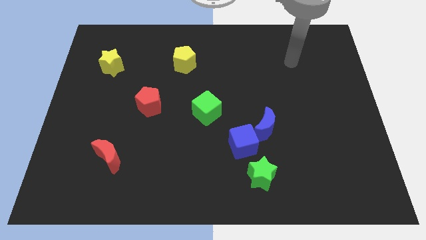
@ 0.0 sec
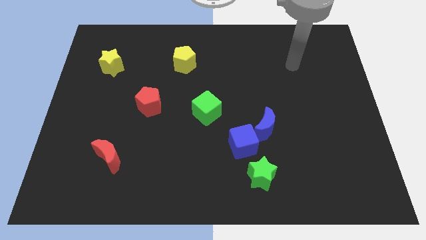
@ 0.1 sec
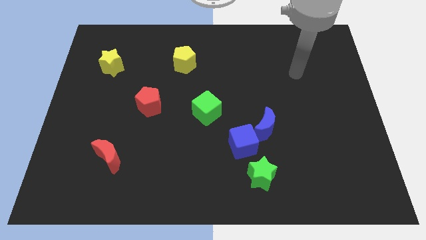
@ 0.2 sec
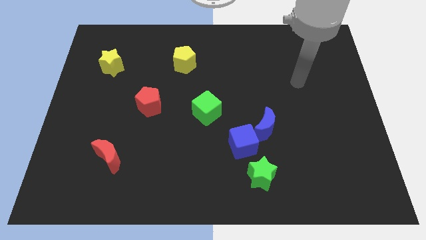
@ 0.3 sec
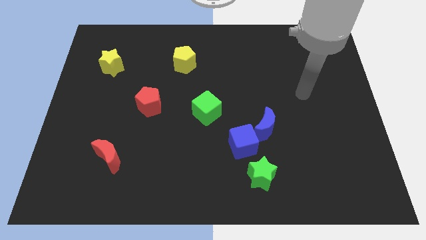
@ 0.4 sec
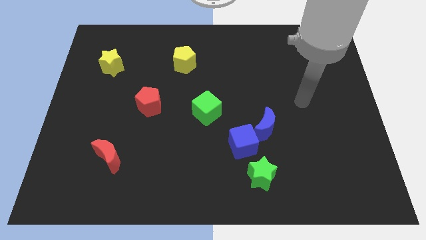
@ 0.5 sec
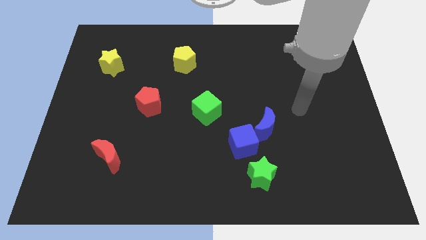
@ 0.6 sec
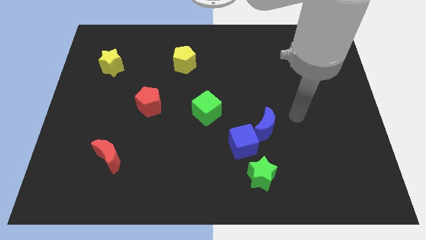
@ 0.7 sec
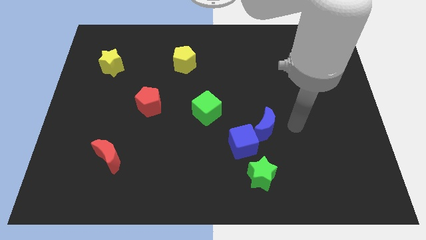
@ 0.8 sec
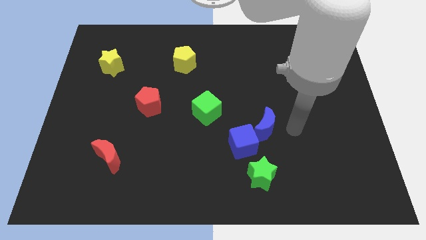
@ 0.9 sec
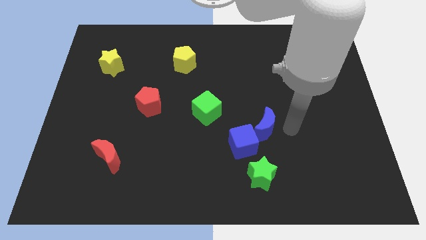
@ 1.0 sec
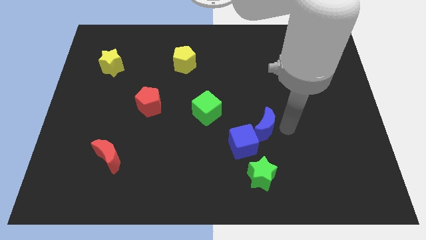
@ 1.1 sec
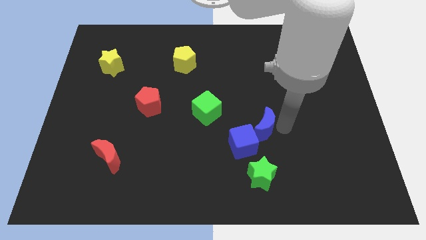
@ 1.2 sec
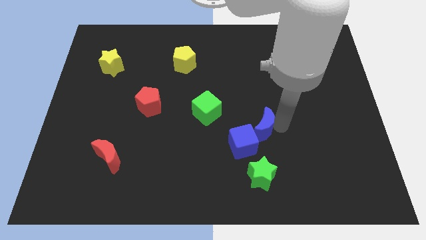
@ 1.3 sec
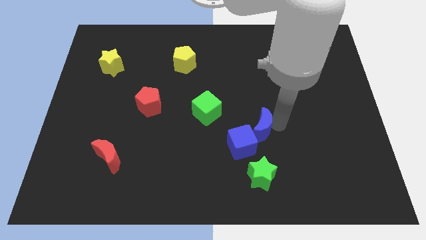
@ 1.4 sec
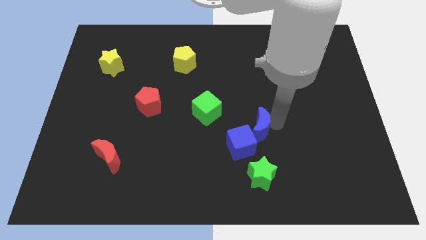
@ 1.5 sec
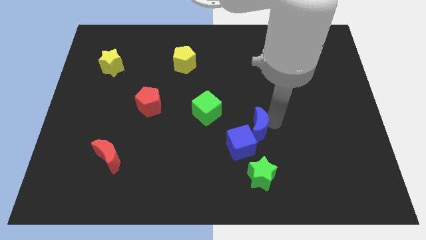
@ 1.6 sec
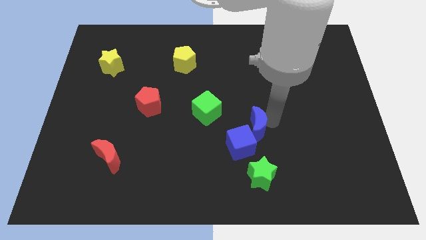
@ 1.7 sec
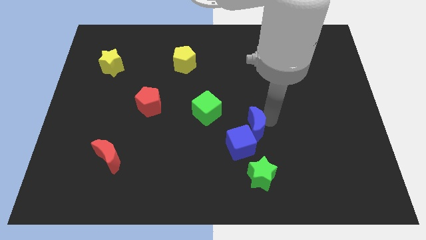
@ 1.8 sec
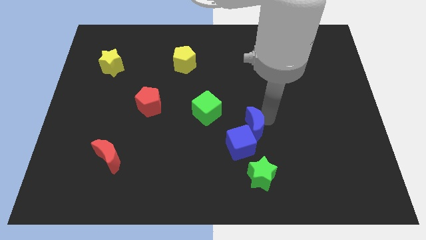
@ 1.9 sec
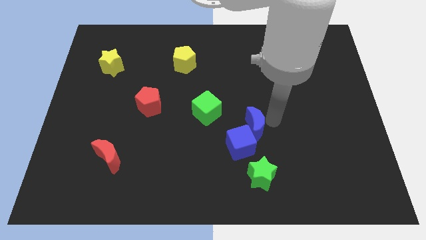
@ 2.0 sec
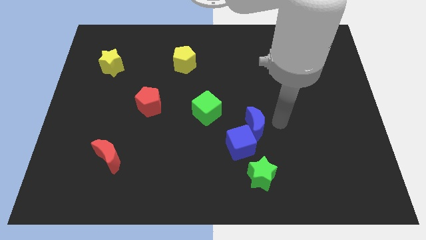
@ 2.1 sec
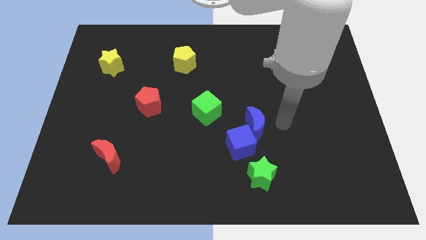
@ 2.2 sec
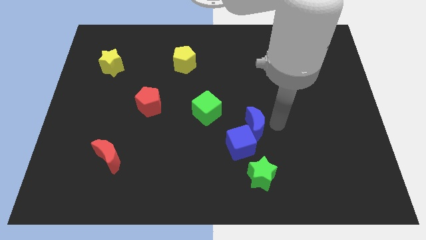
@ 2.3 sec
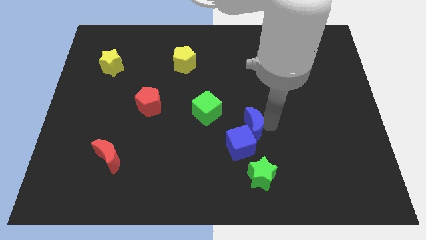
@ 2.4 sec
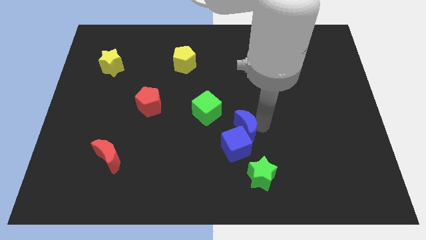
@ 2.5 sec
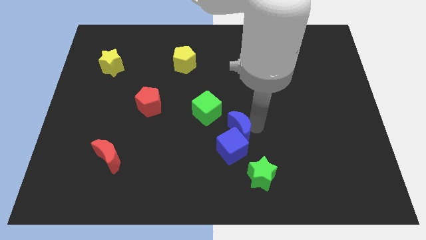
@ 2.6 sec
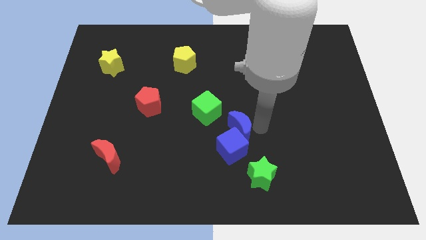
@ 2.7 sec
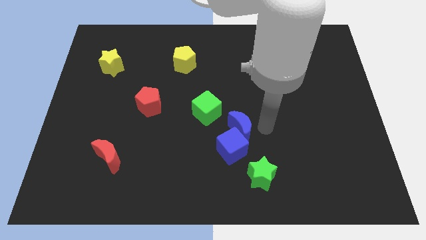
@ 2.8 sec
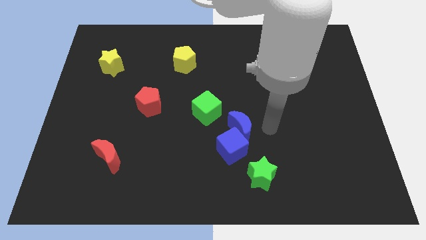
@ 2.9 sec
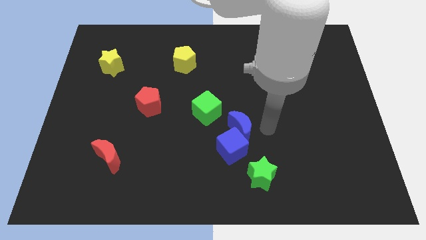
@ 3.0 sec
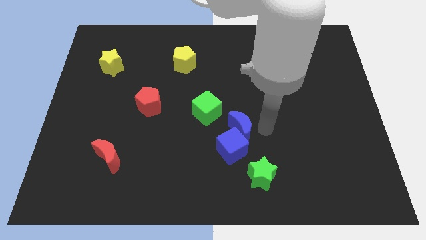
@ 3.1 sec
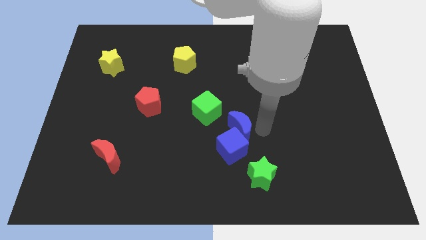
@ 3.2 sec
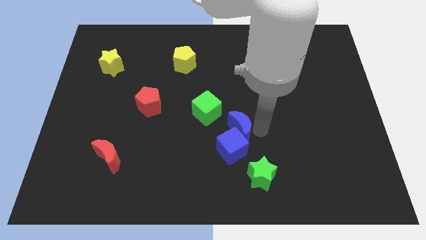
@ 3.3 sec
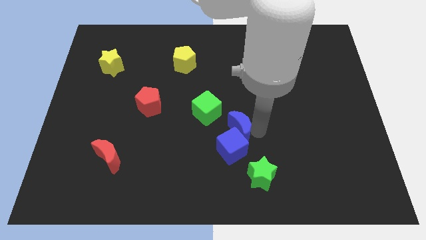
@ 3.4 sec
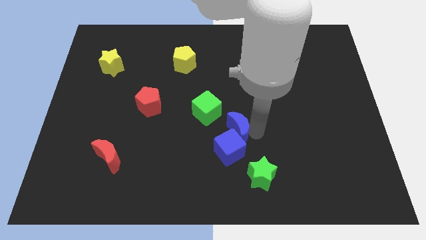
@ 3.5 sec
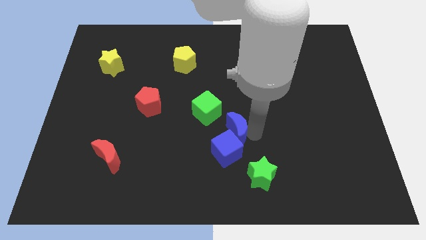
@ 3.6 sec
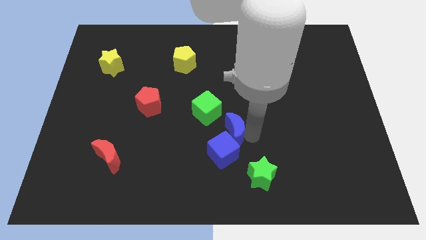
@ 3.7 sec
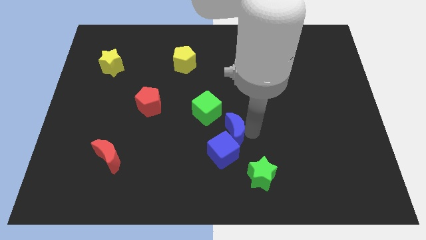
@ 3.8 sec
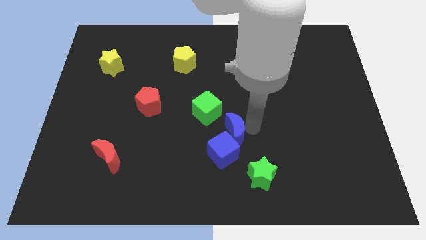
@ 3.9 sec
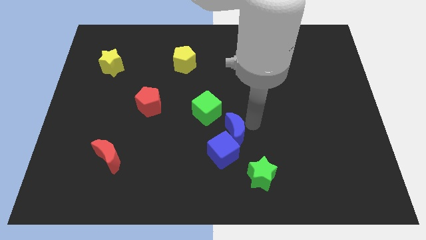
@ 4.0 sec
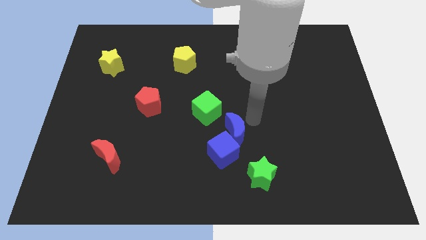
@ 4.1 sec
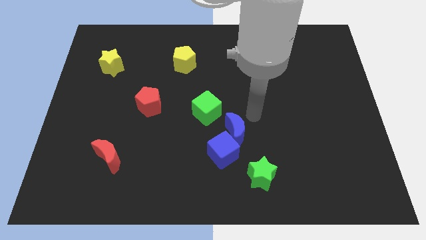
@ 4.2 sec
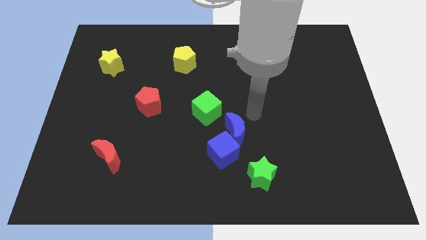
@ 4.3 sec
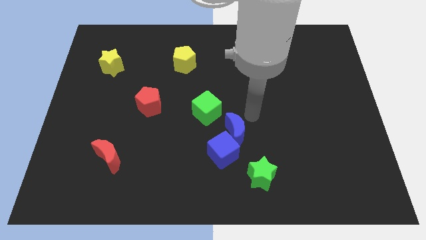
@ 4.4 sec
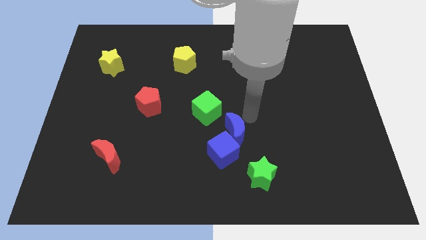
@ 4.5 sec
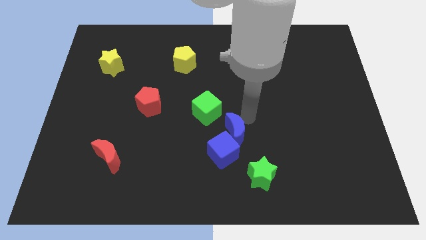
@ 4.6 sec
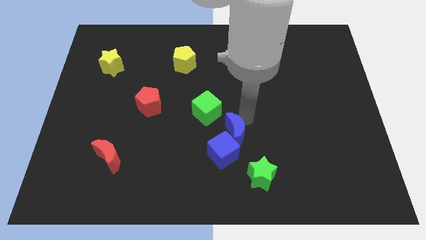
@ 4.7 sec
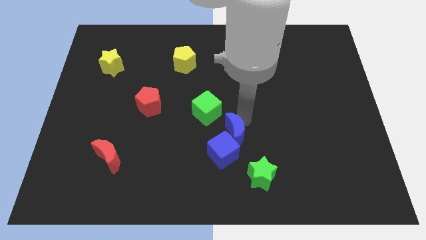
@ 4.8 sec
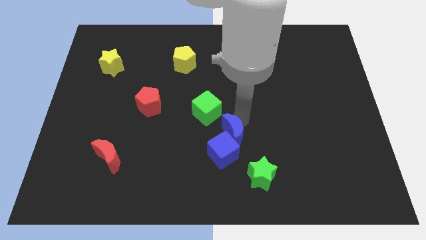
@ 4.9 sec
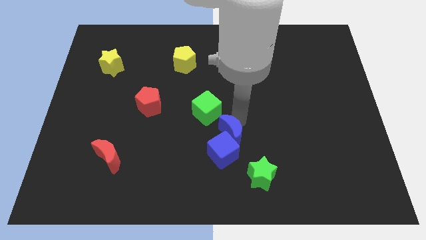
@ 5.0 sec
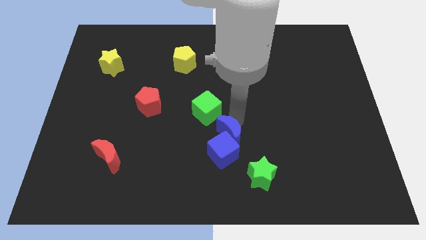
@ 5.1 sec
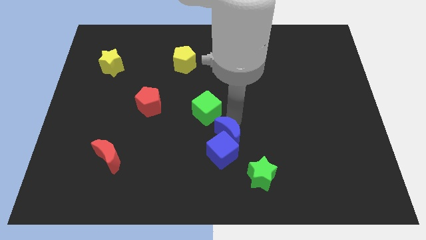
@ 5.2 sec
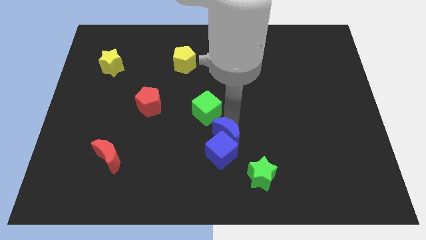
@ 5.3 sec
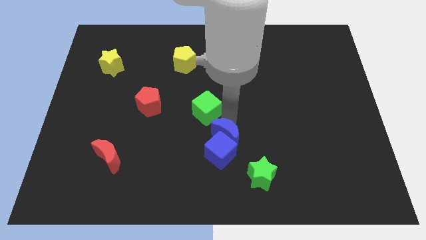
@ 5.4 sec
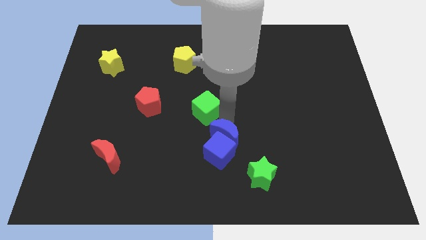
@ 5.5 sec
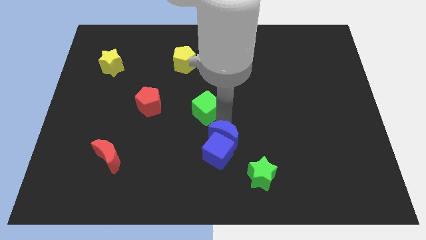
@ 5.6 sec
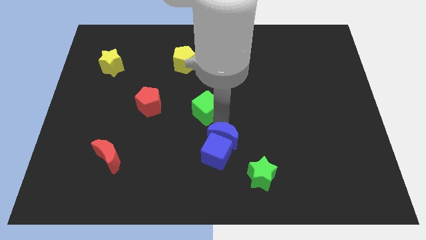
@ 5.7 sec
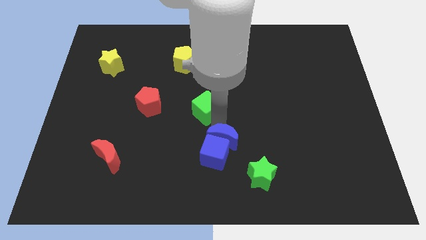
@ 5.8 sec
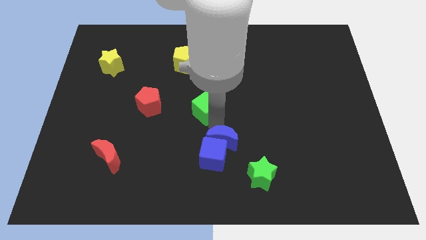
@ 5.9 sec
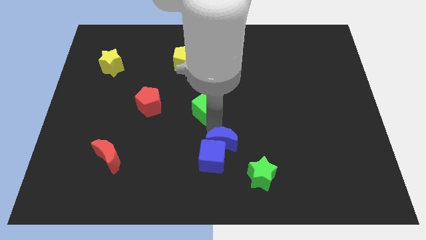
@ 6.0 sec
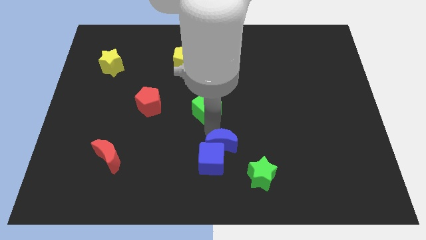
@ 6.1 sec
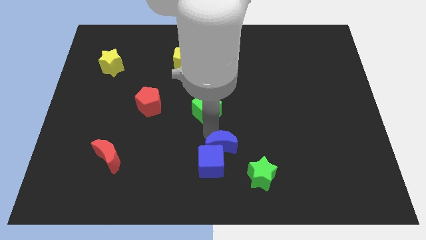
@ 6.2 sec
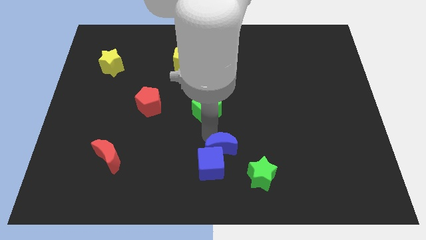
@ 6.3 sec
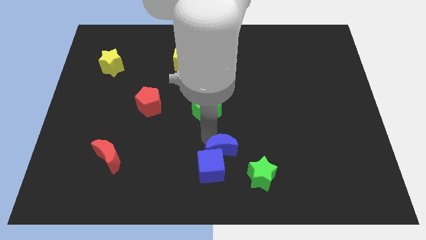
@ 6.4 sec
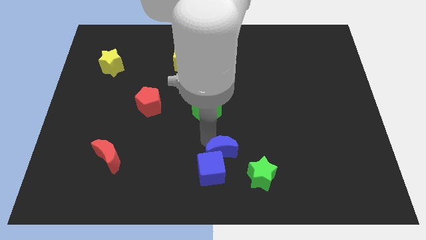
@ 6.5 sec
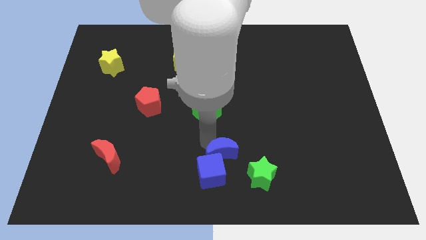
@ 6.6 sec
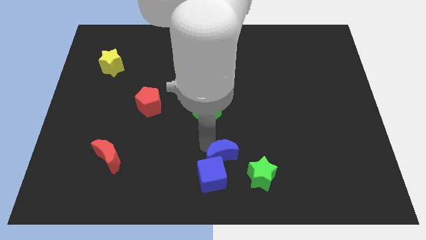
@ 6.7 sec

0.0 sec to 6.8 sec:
slide the blue moon to the bottom
